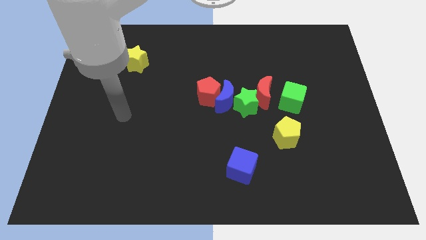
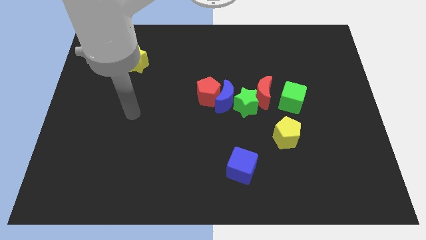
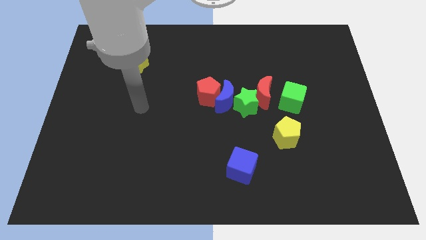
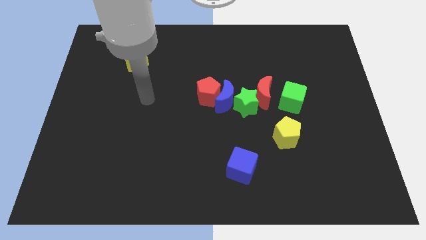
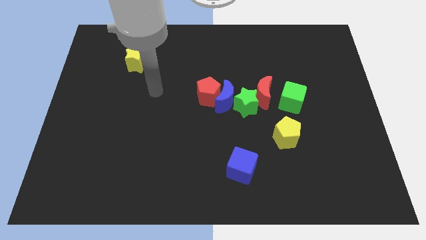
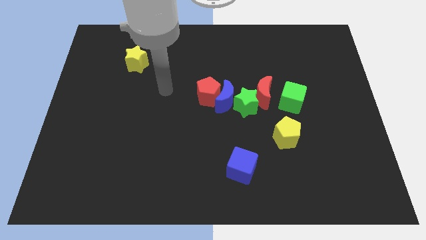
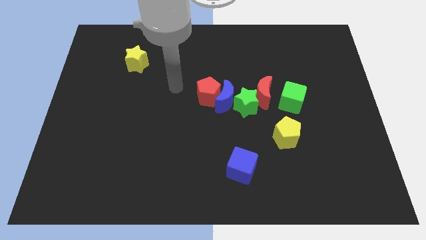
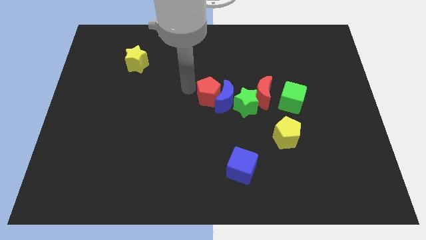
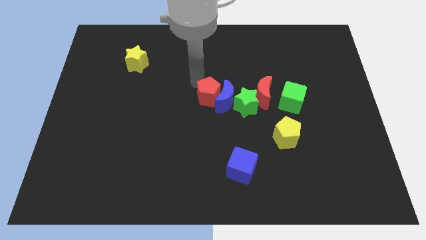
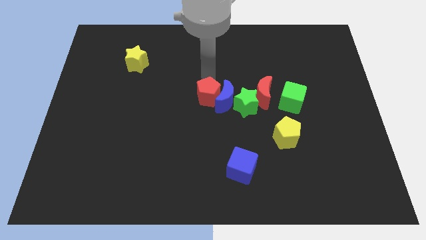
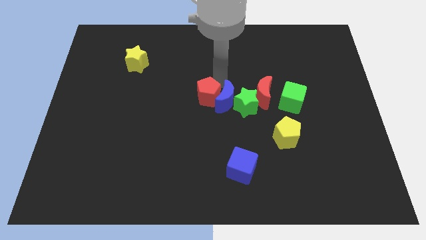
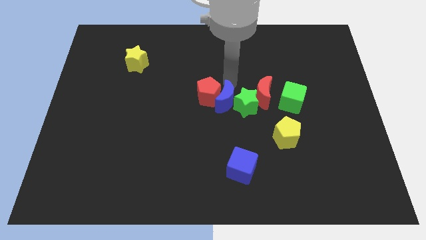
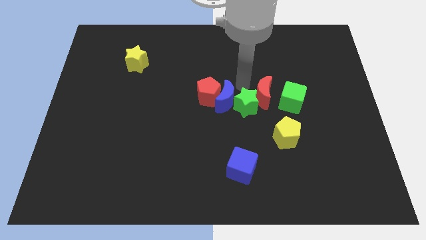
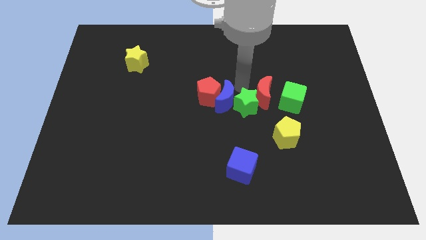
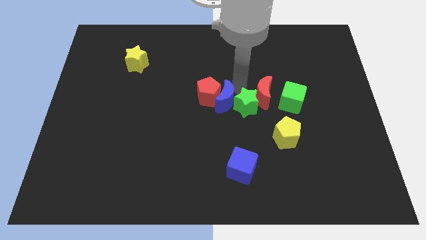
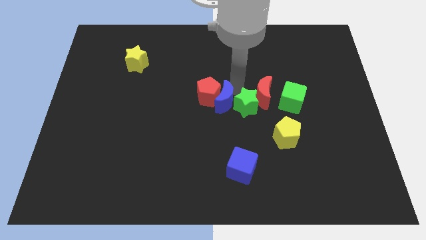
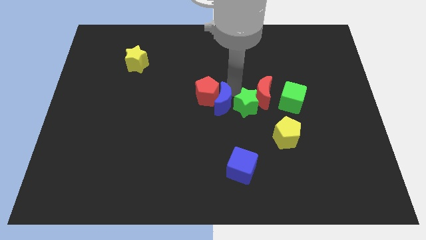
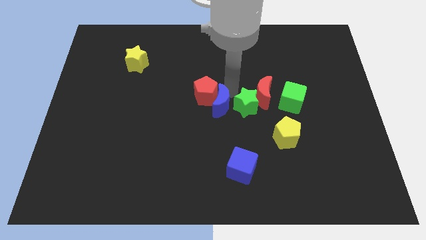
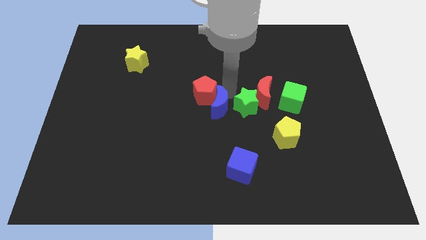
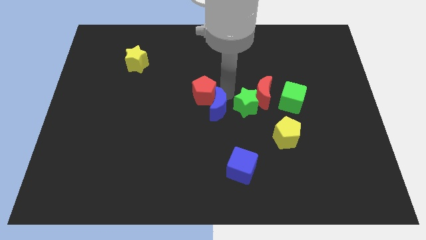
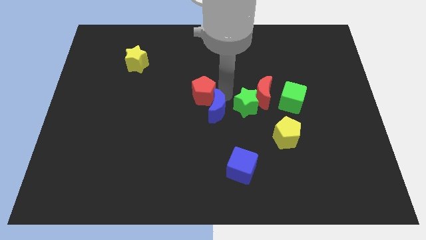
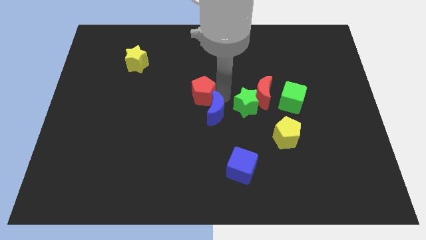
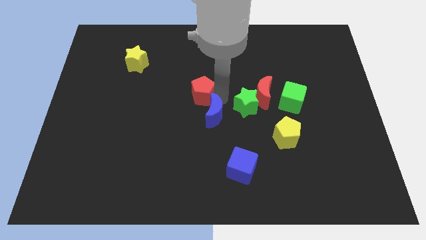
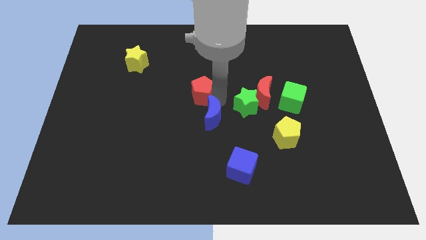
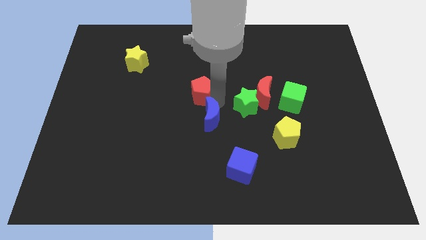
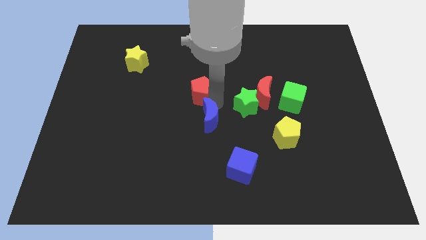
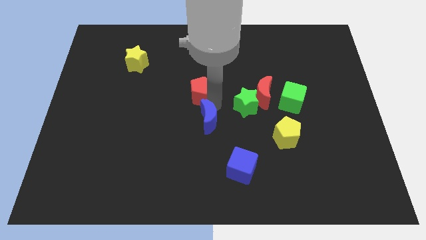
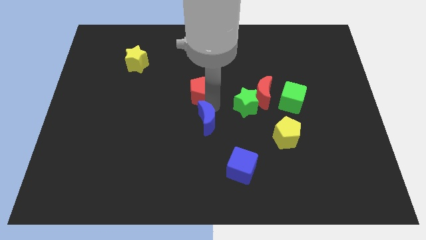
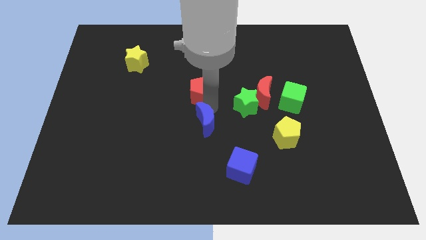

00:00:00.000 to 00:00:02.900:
pull the blue moon apart from the red pentagon, green star, and red moon

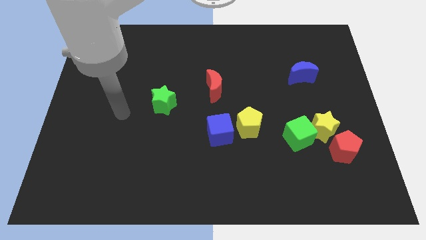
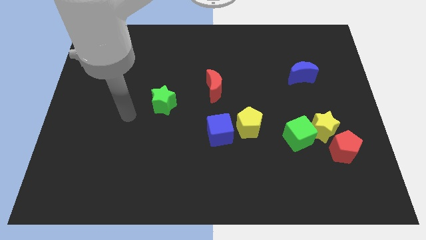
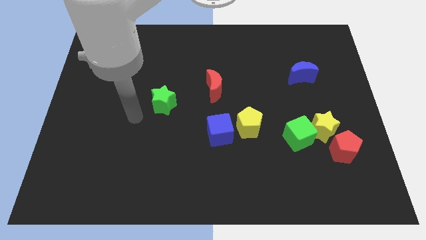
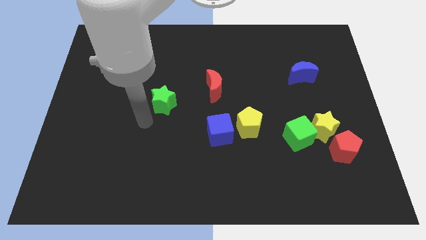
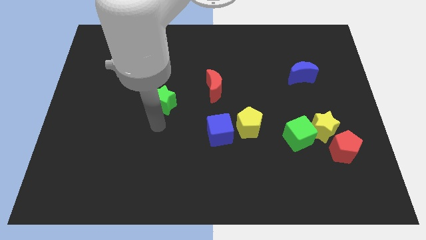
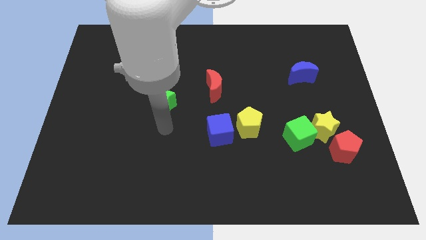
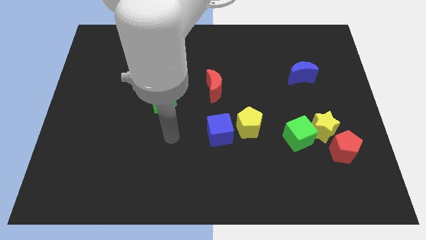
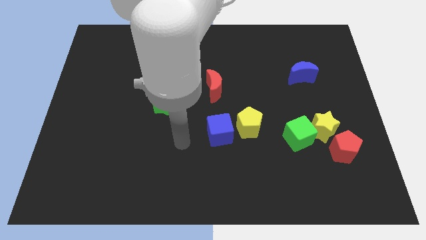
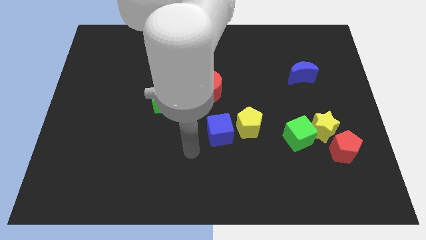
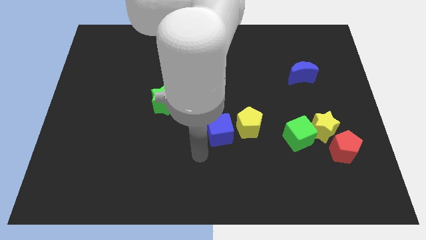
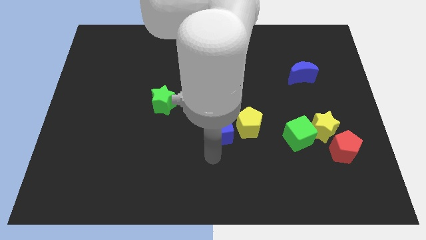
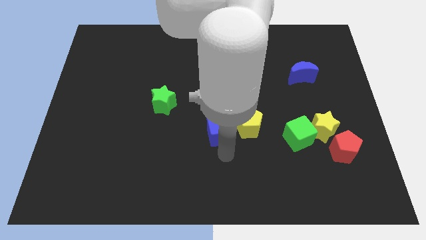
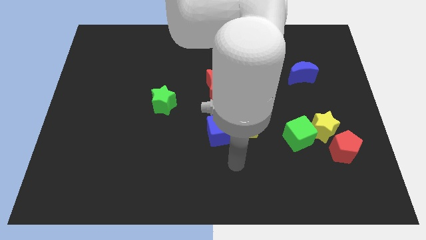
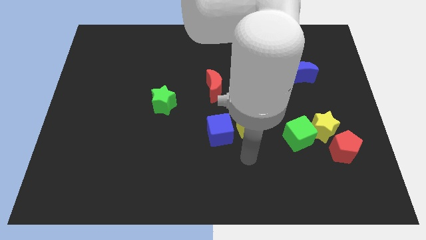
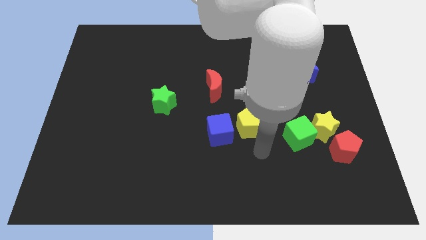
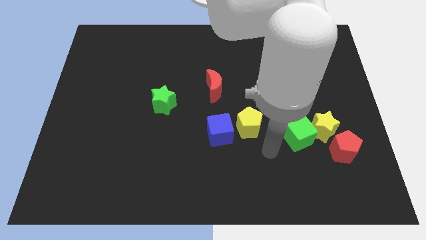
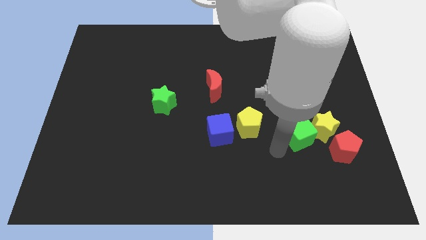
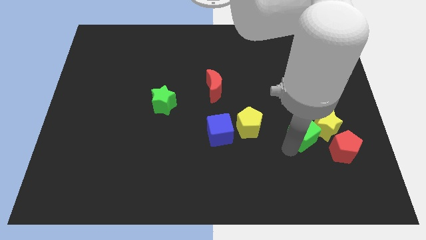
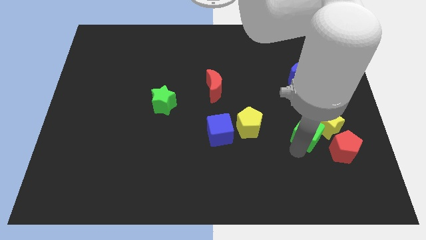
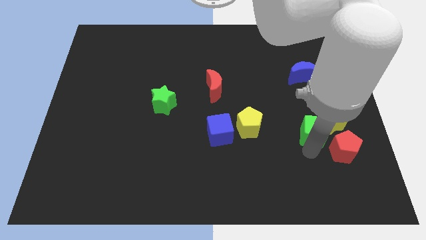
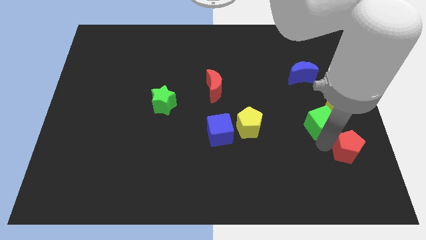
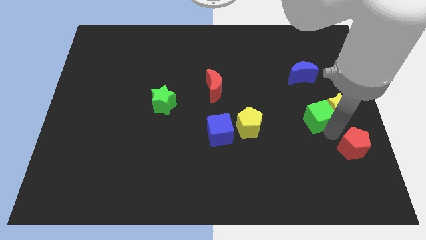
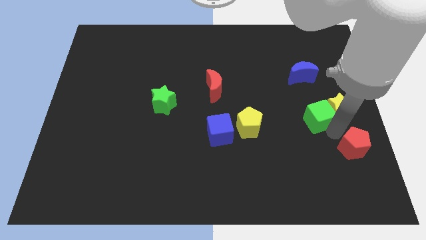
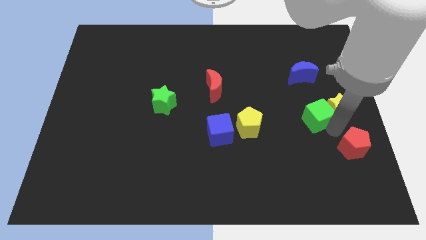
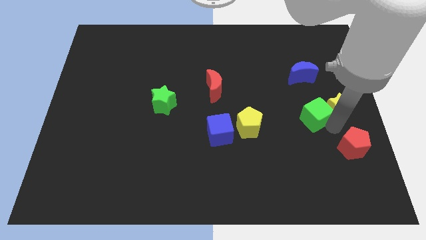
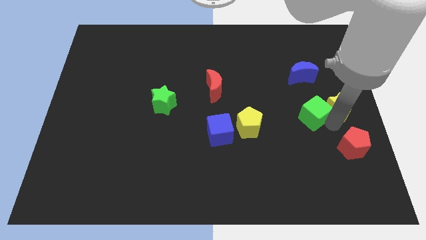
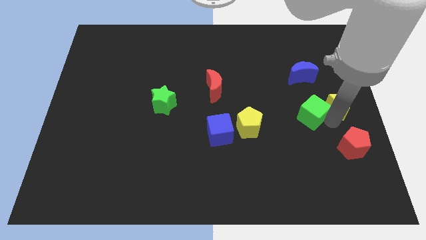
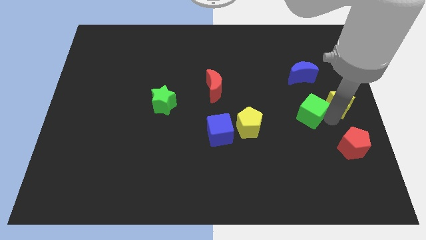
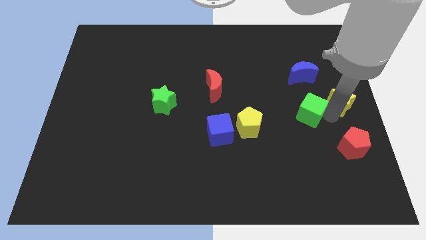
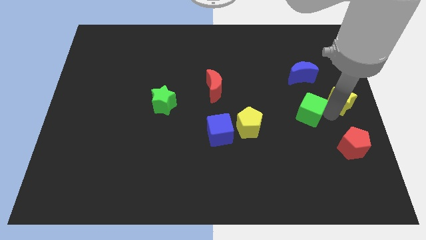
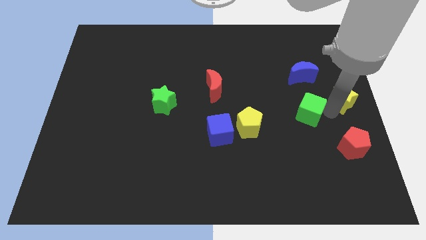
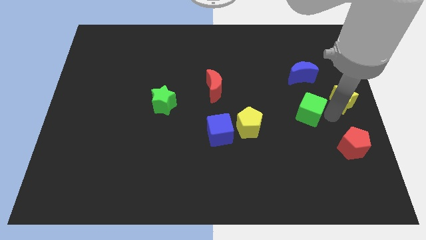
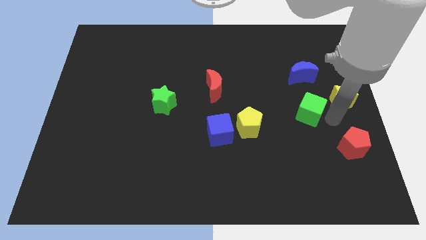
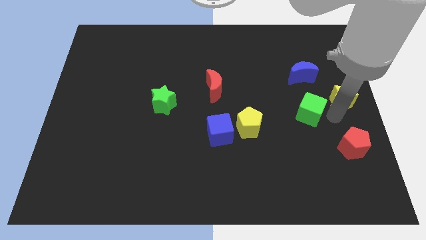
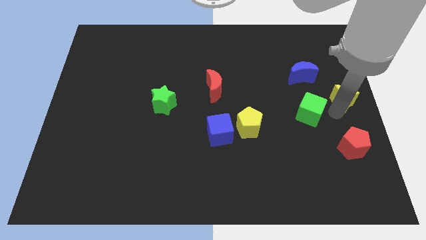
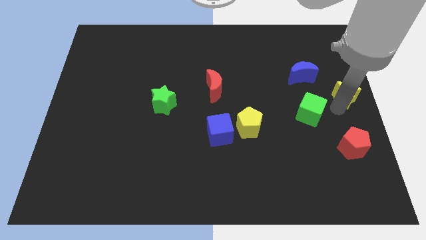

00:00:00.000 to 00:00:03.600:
move the yellow star away from the green cube and red pentagon

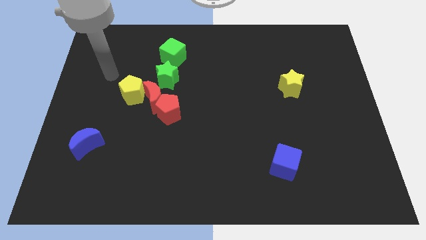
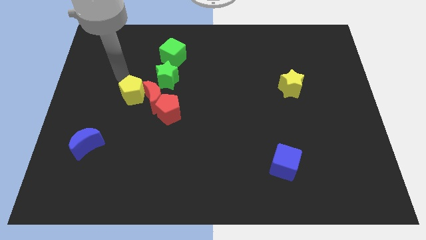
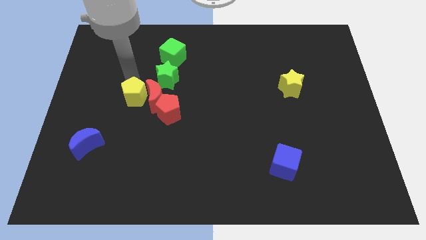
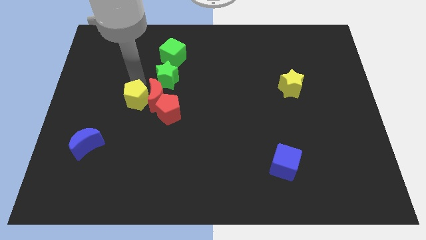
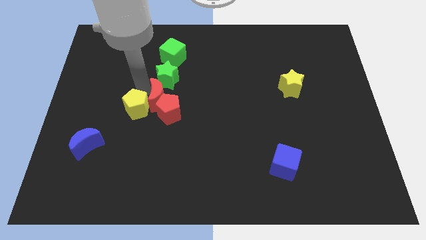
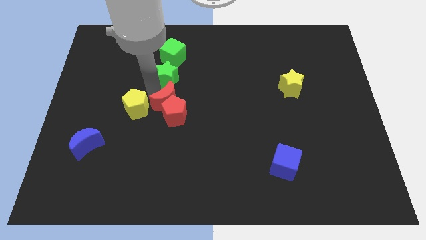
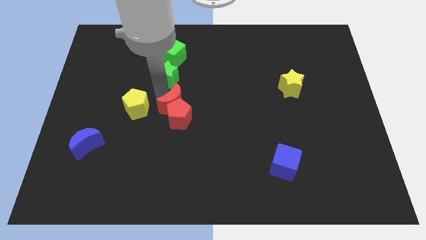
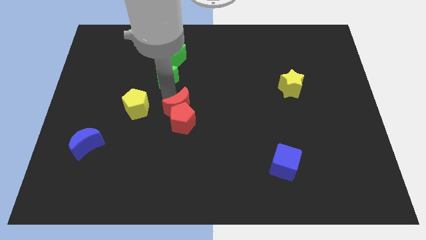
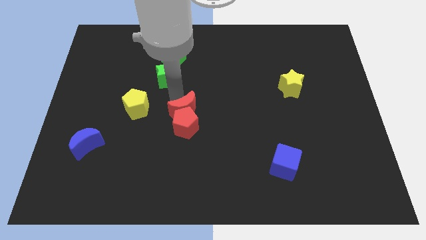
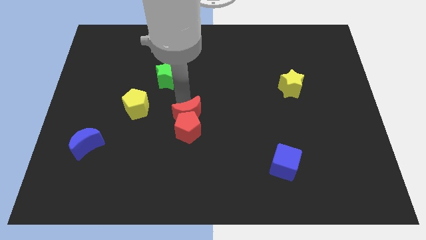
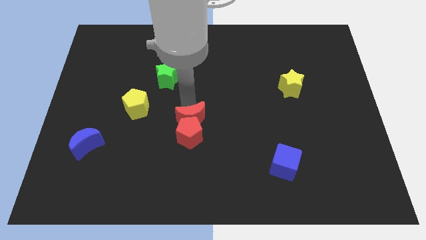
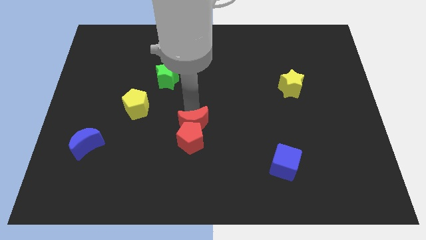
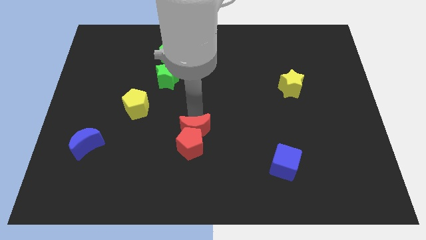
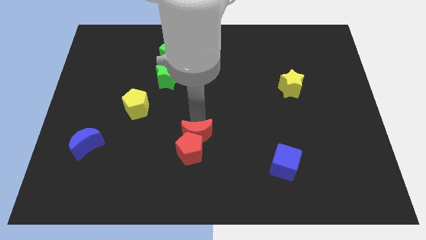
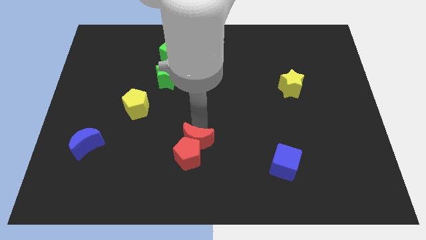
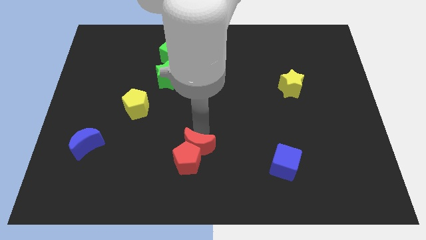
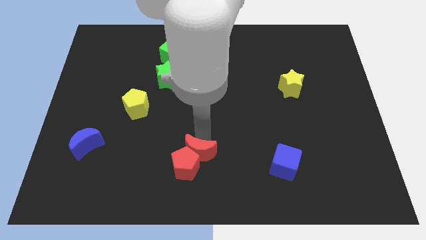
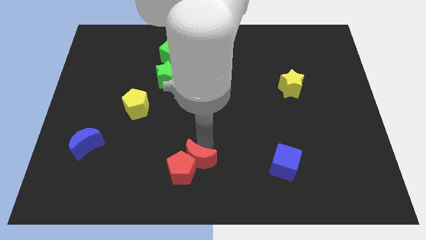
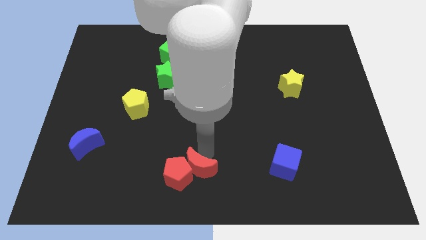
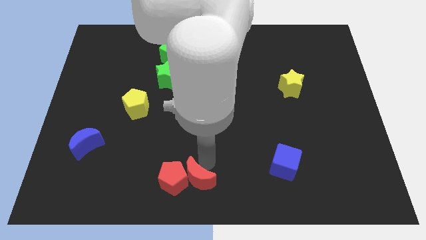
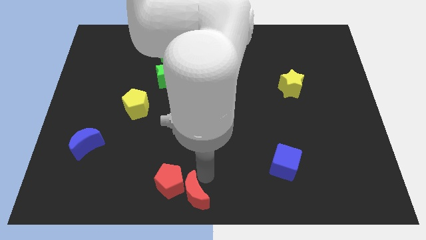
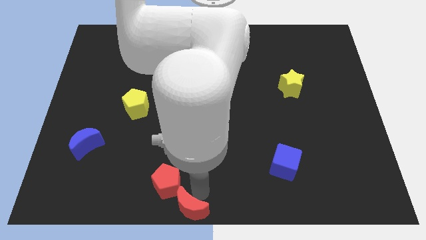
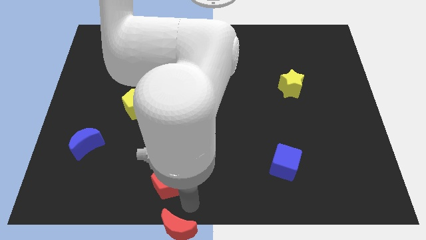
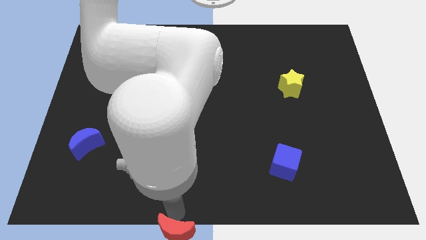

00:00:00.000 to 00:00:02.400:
separate the red pentagon from the red moon

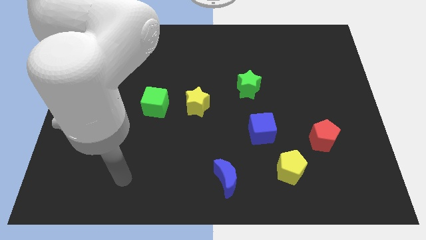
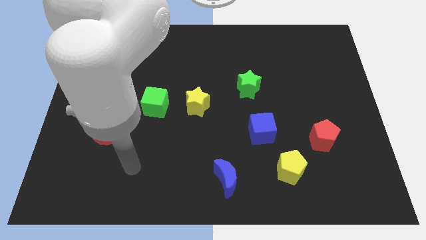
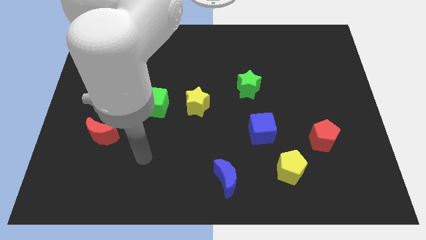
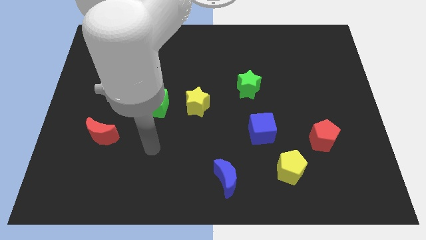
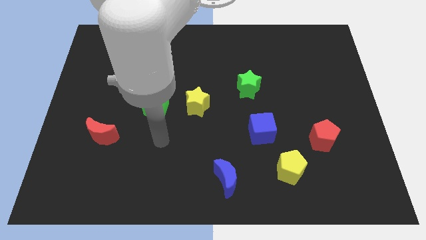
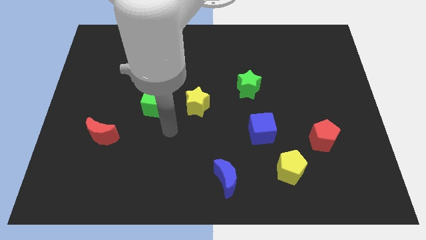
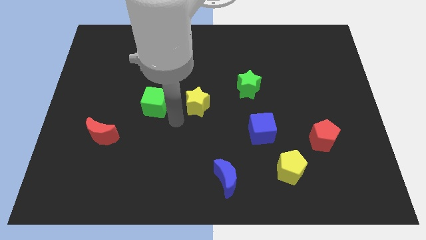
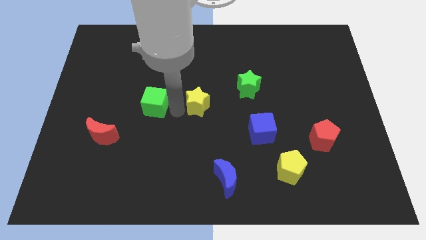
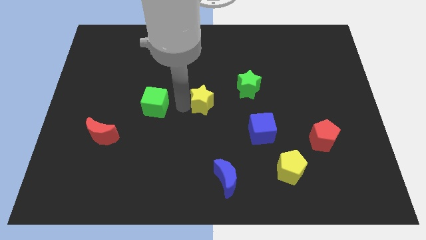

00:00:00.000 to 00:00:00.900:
separate the green cube from the yellow star
